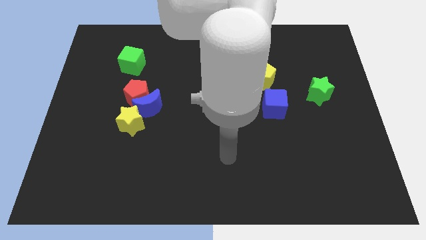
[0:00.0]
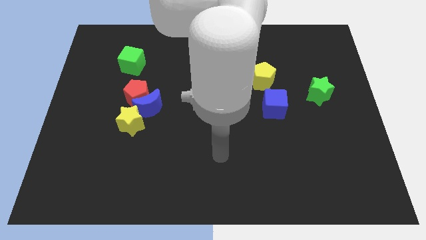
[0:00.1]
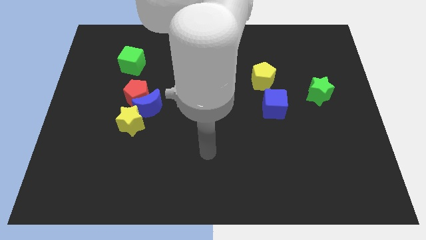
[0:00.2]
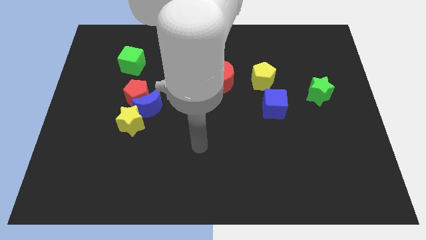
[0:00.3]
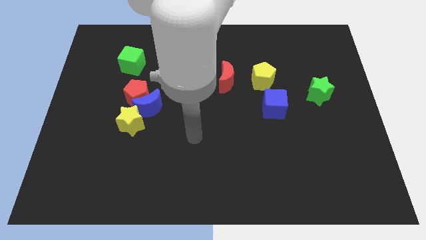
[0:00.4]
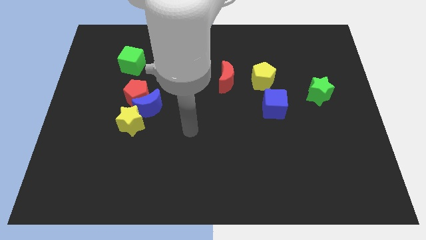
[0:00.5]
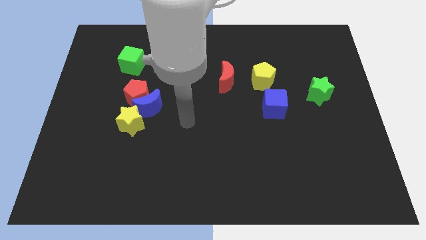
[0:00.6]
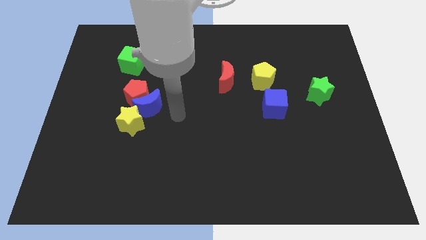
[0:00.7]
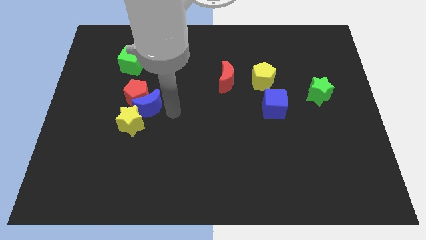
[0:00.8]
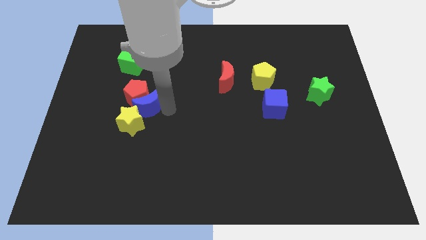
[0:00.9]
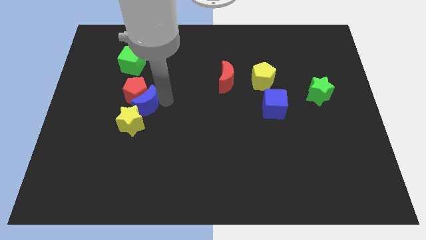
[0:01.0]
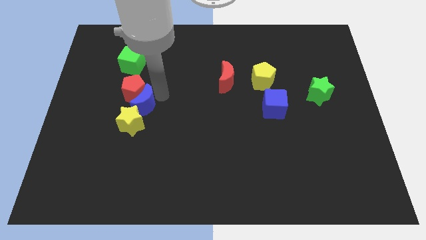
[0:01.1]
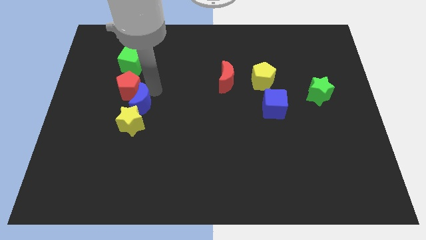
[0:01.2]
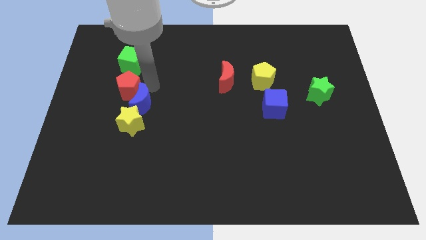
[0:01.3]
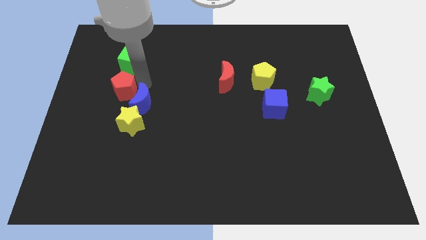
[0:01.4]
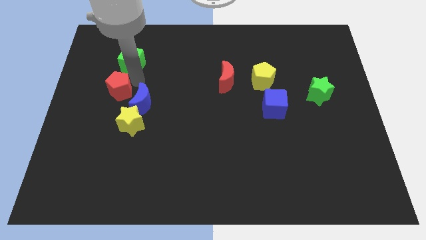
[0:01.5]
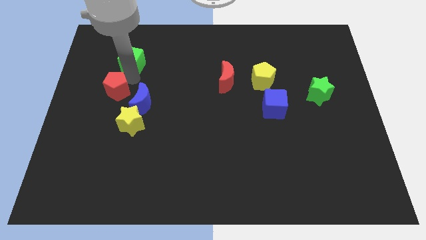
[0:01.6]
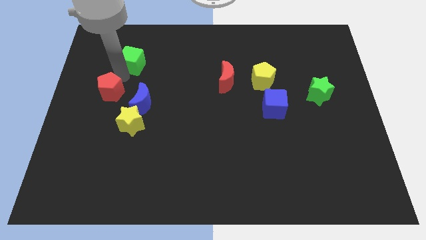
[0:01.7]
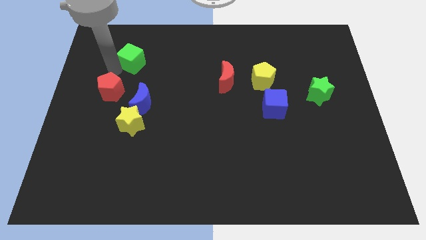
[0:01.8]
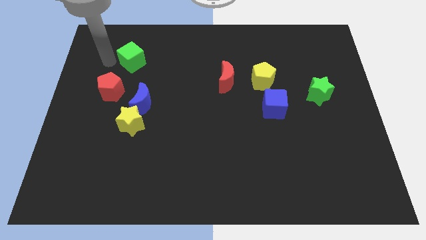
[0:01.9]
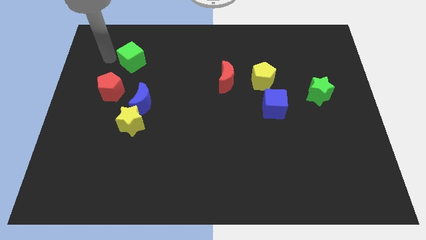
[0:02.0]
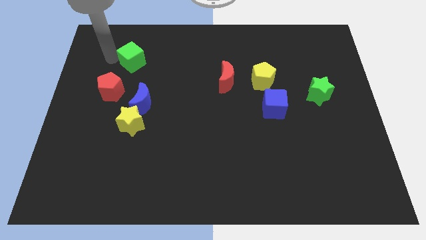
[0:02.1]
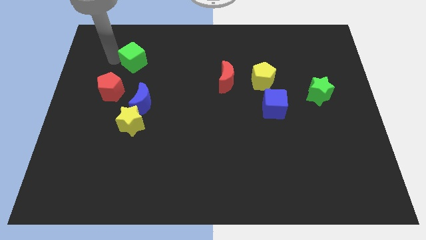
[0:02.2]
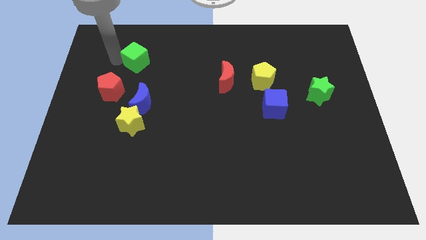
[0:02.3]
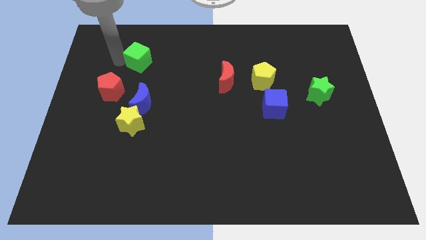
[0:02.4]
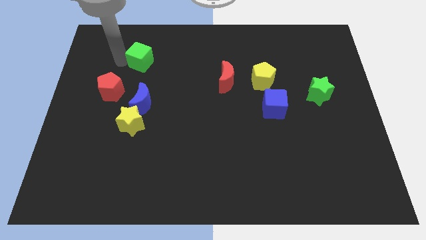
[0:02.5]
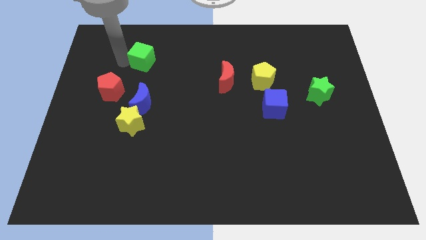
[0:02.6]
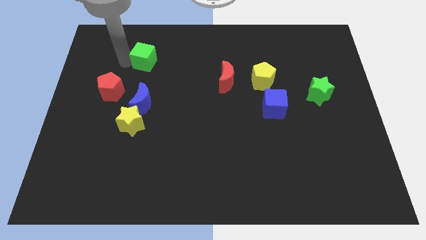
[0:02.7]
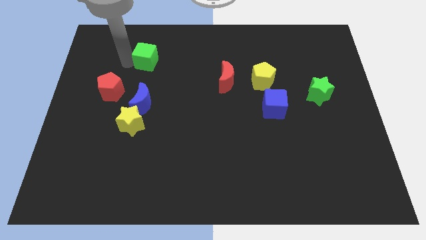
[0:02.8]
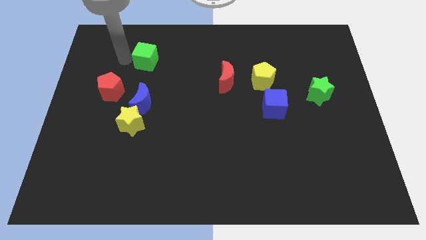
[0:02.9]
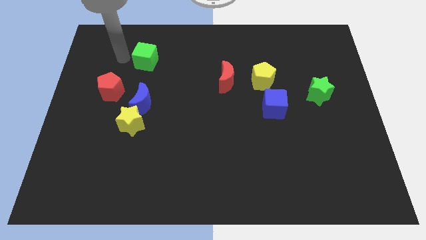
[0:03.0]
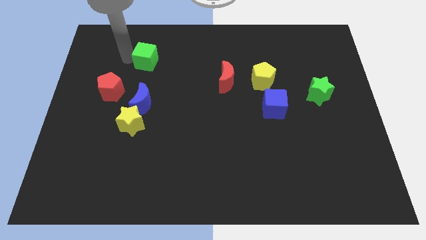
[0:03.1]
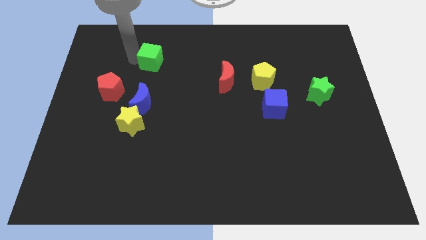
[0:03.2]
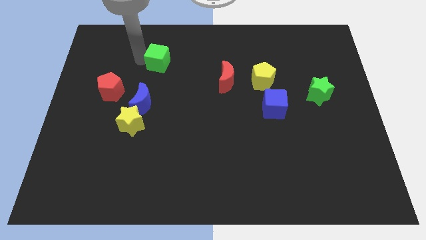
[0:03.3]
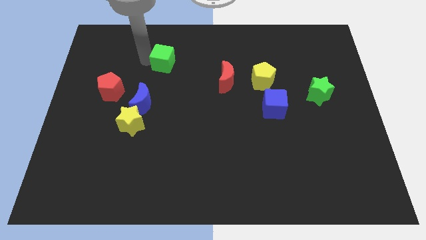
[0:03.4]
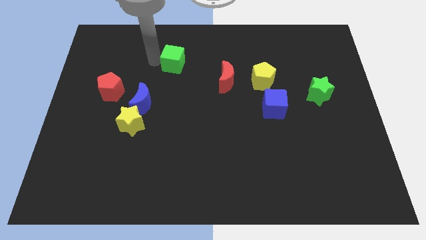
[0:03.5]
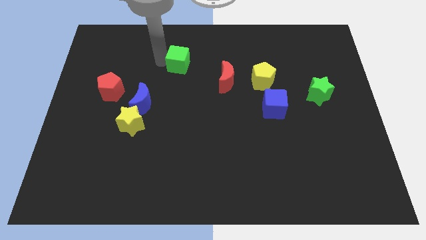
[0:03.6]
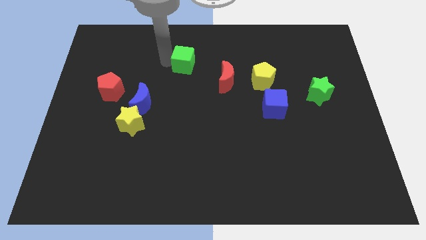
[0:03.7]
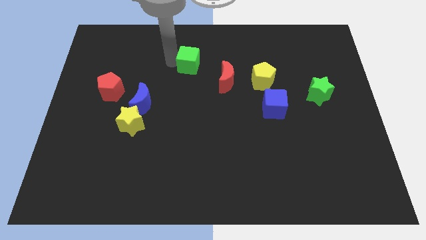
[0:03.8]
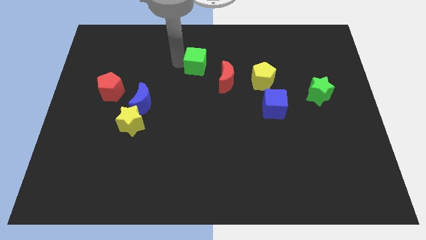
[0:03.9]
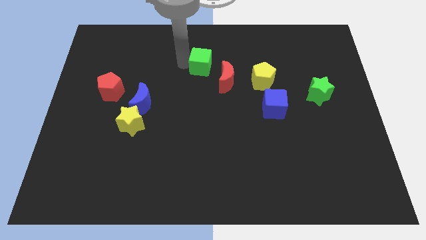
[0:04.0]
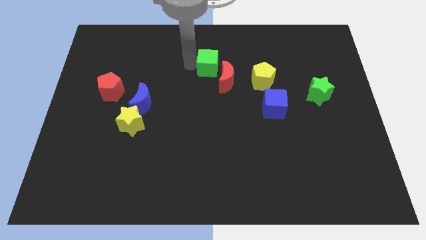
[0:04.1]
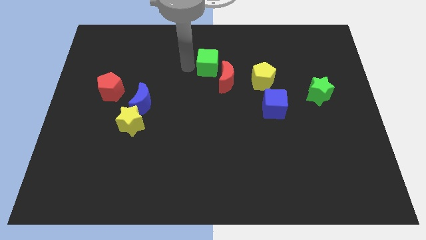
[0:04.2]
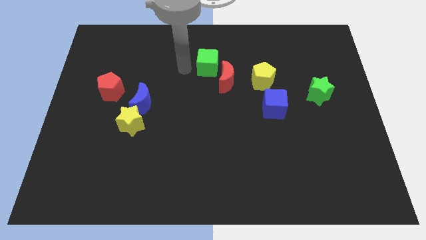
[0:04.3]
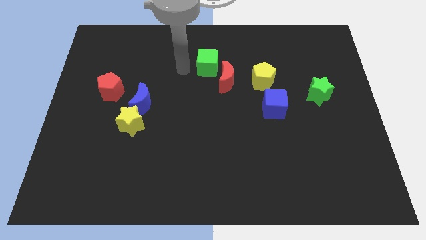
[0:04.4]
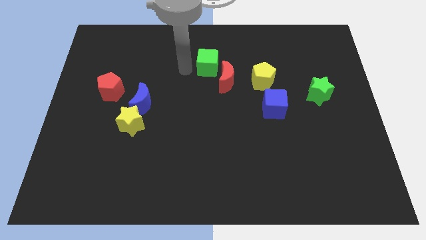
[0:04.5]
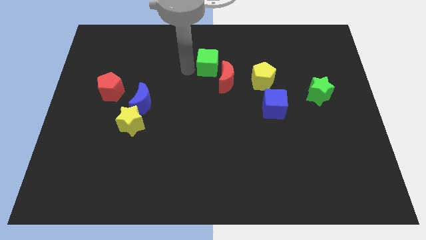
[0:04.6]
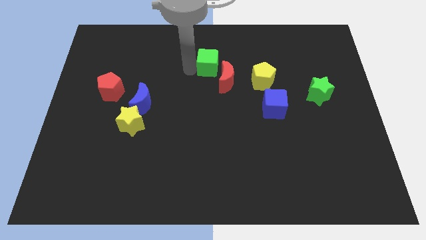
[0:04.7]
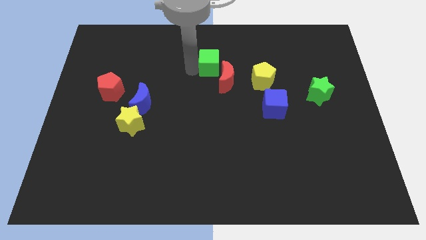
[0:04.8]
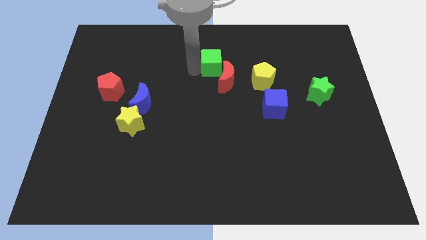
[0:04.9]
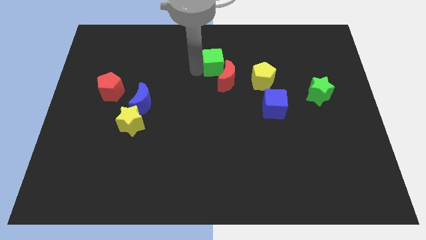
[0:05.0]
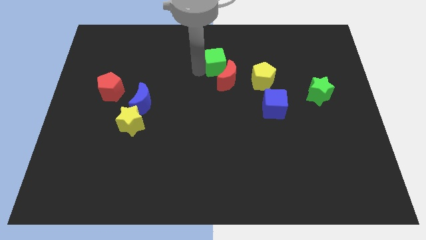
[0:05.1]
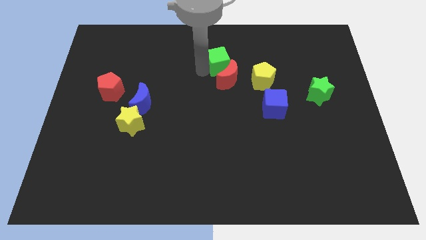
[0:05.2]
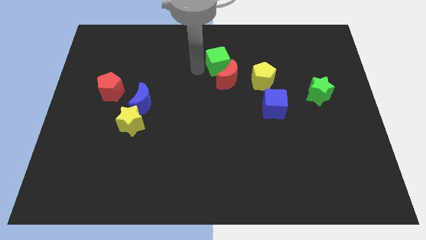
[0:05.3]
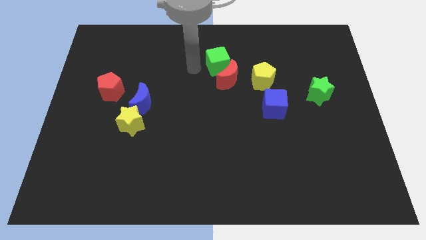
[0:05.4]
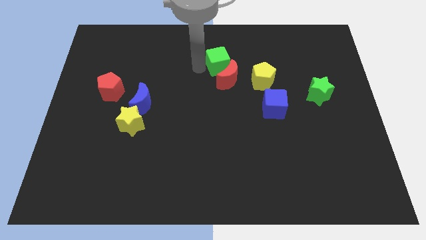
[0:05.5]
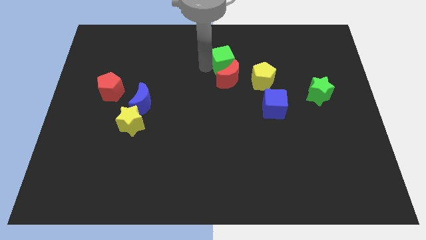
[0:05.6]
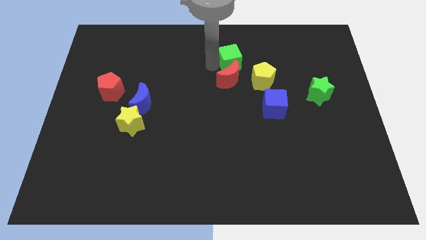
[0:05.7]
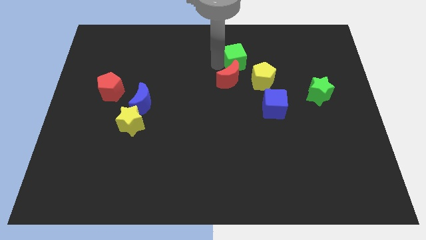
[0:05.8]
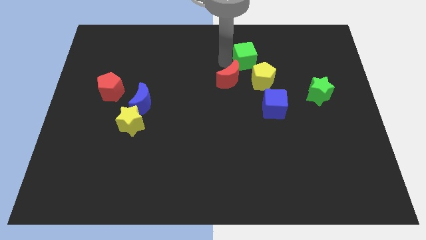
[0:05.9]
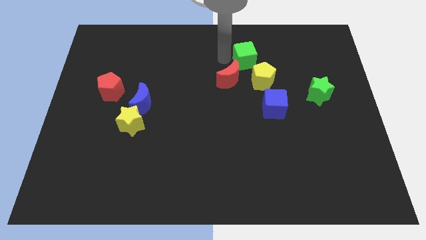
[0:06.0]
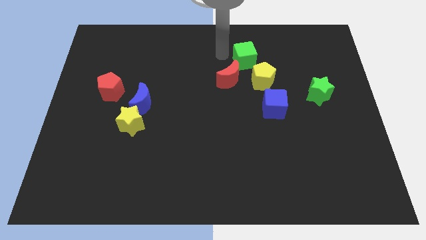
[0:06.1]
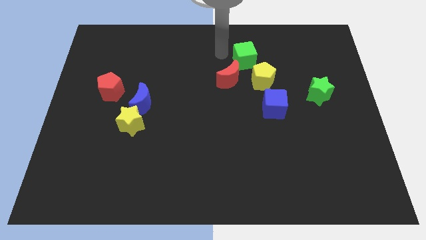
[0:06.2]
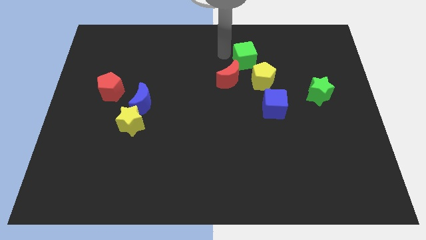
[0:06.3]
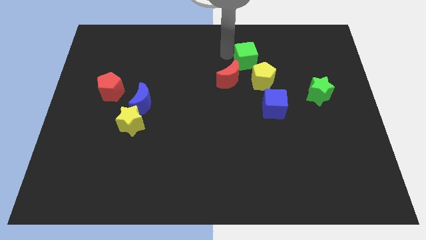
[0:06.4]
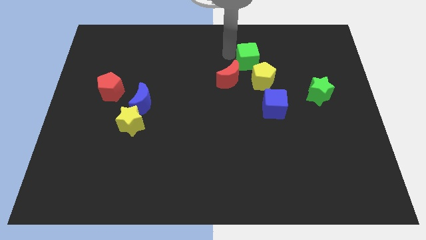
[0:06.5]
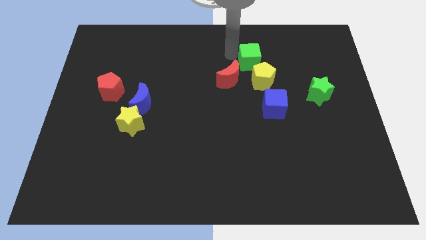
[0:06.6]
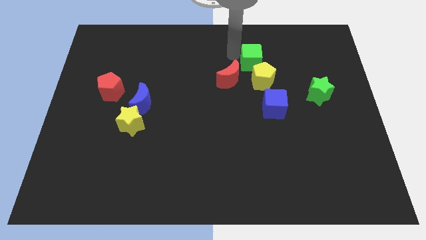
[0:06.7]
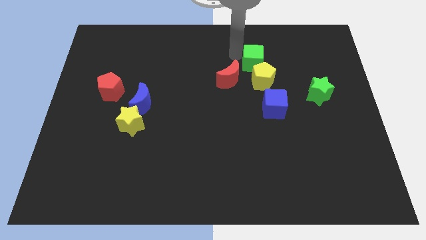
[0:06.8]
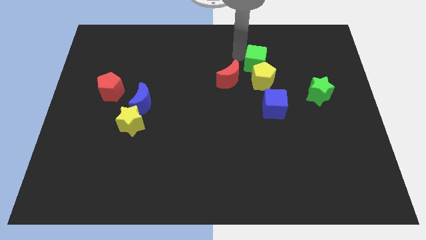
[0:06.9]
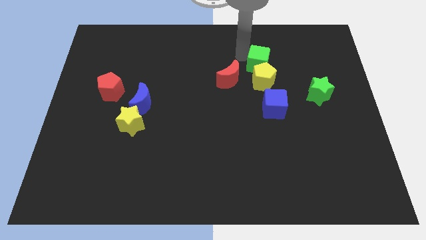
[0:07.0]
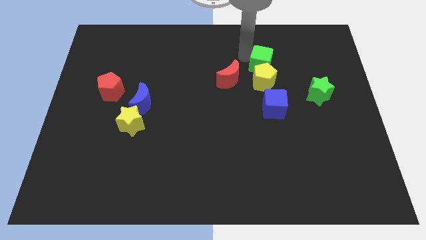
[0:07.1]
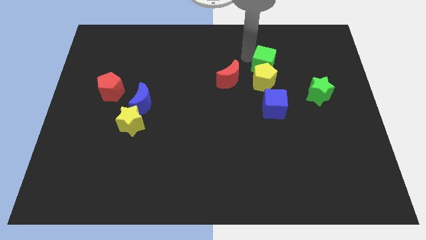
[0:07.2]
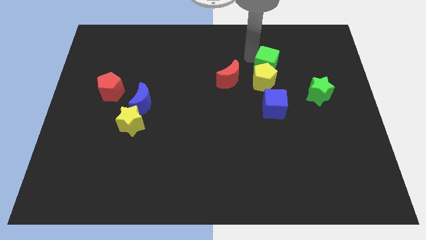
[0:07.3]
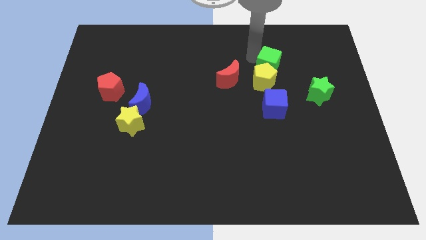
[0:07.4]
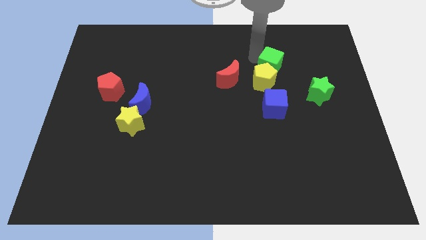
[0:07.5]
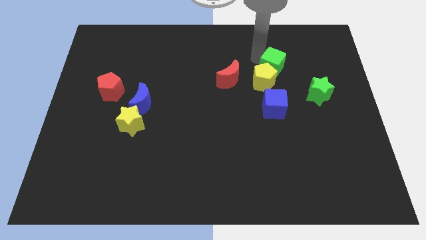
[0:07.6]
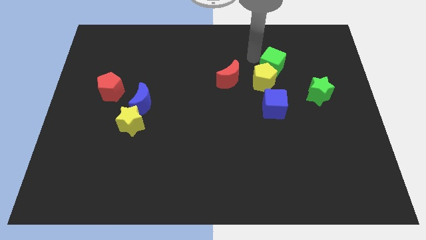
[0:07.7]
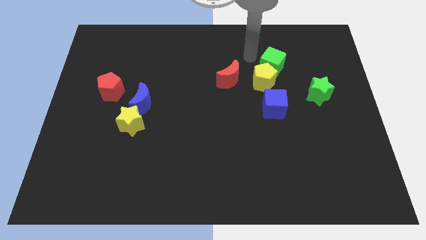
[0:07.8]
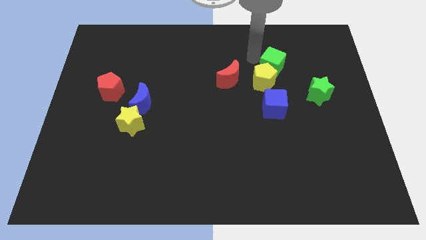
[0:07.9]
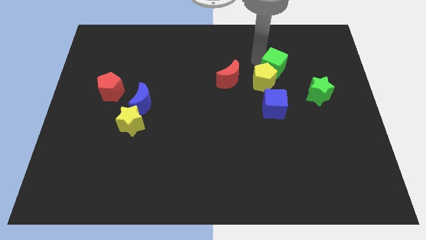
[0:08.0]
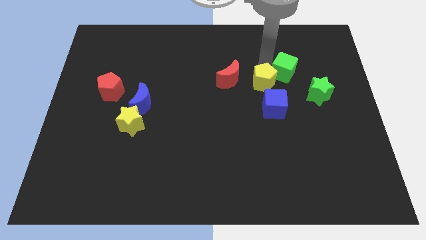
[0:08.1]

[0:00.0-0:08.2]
slide the green cube right of the yellow pentagon
